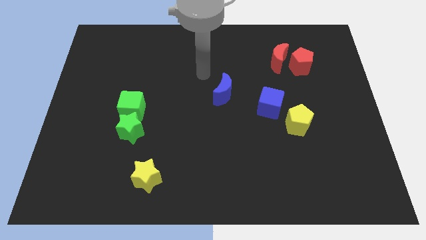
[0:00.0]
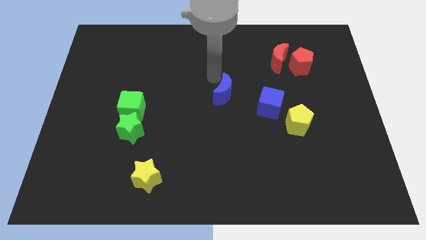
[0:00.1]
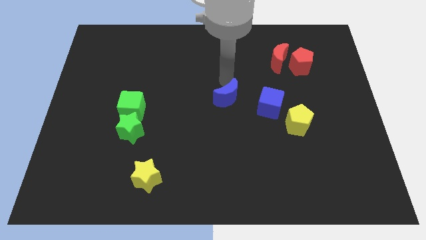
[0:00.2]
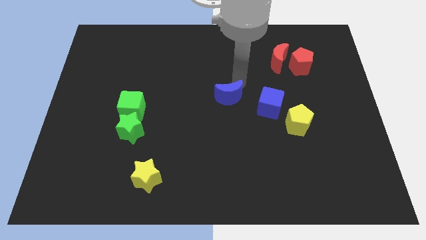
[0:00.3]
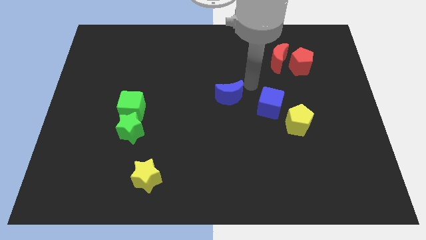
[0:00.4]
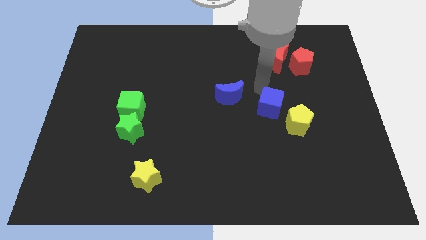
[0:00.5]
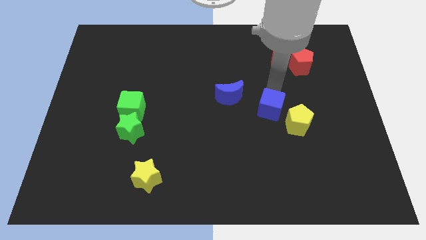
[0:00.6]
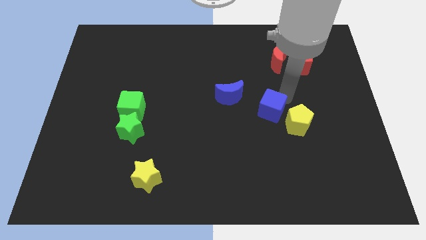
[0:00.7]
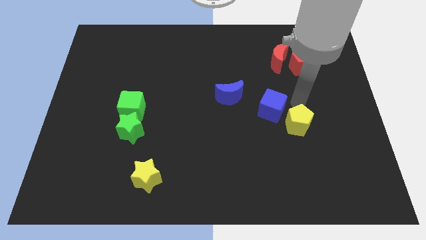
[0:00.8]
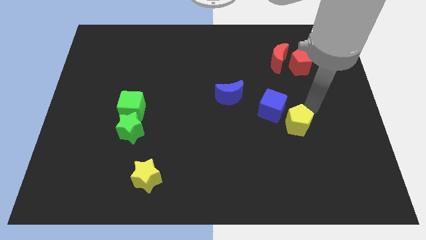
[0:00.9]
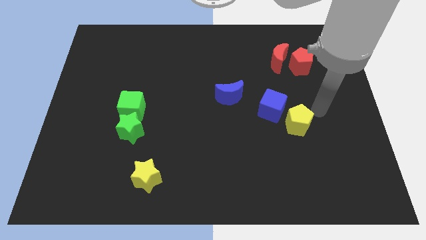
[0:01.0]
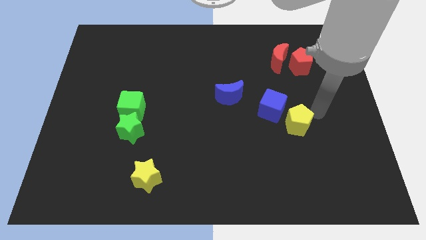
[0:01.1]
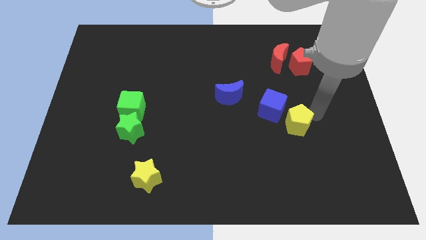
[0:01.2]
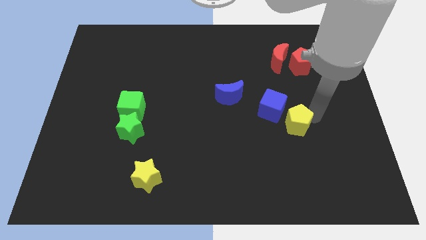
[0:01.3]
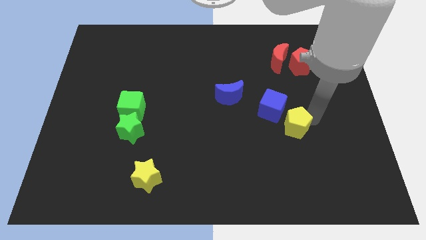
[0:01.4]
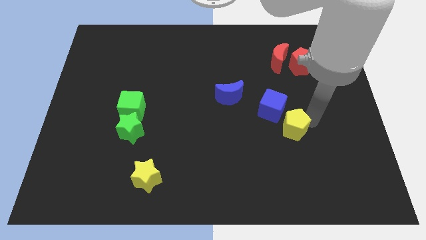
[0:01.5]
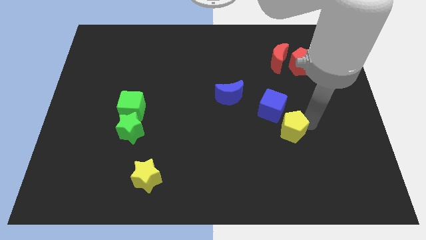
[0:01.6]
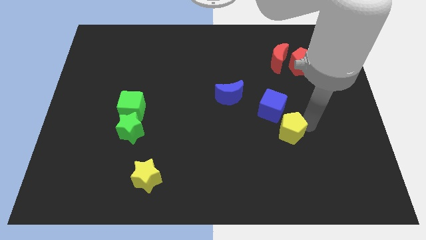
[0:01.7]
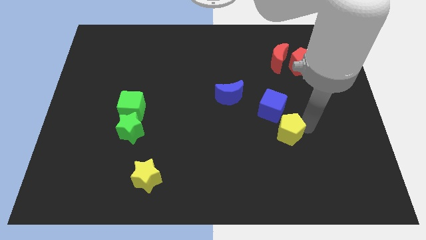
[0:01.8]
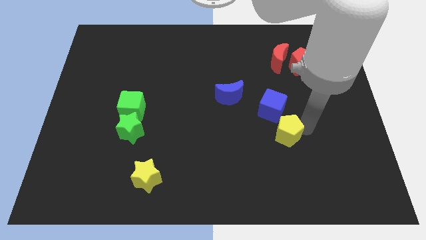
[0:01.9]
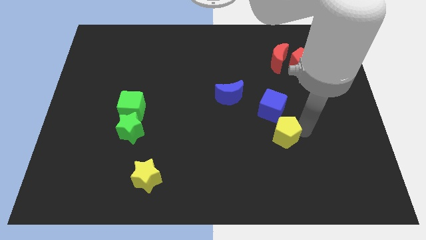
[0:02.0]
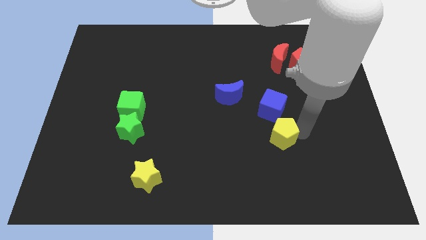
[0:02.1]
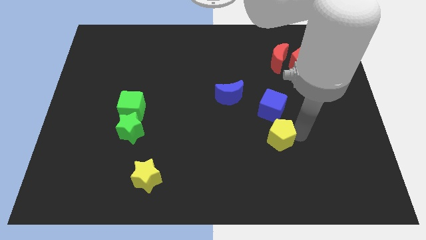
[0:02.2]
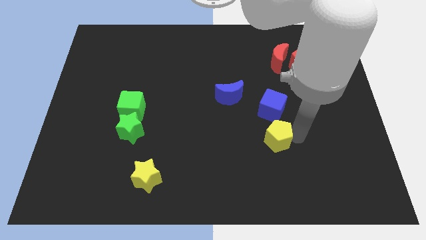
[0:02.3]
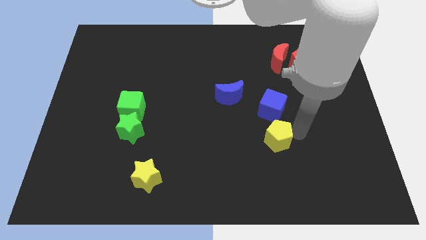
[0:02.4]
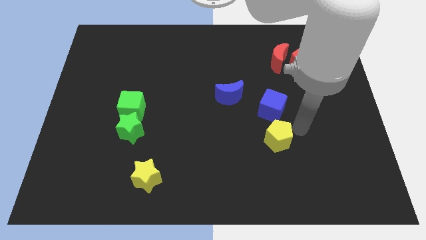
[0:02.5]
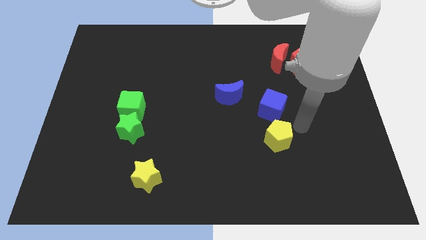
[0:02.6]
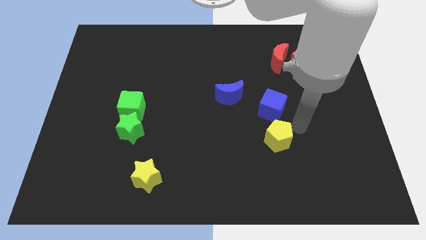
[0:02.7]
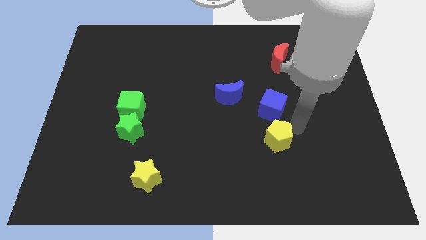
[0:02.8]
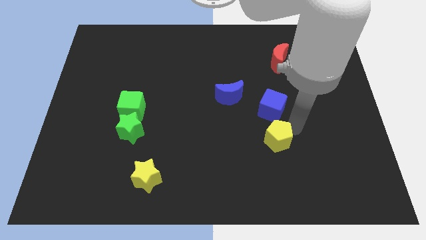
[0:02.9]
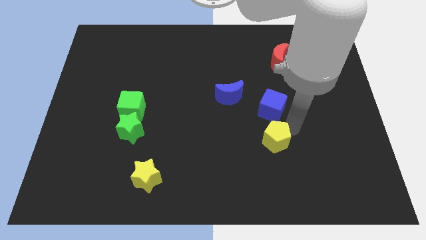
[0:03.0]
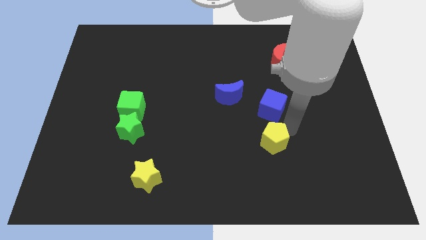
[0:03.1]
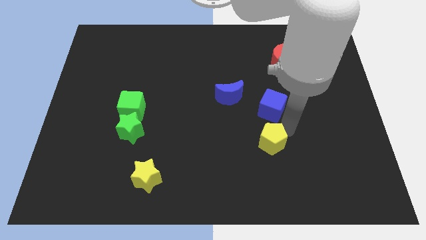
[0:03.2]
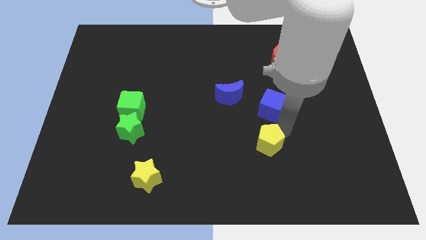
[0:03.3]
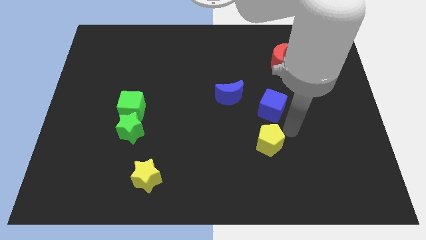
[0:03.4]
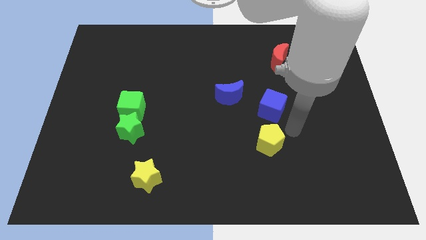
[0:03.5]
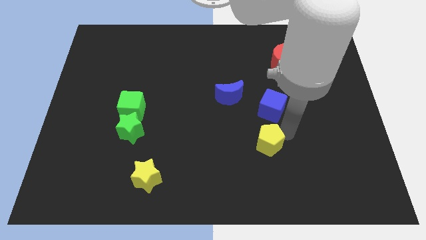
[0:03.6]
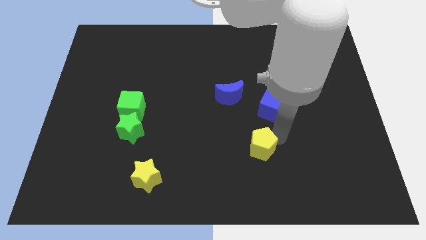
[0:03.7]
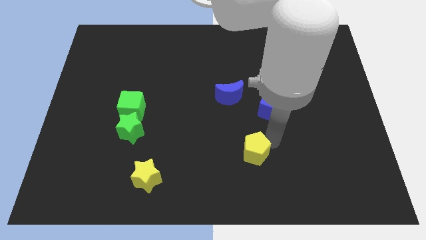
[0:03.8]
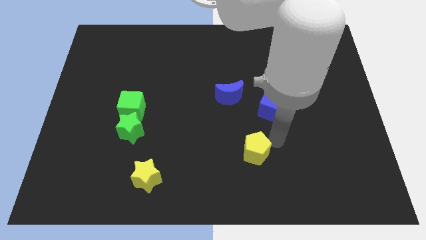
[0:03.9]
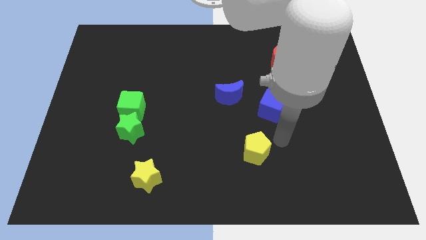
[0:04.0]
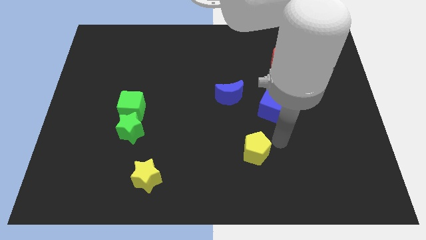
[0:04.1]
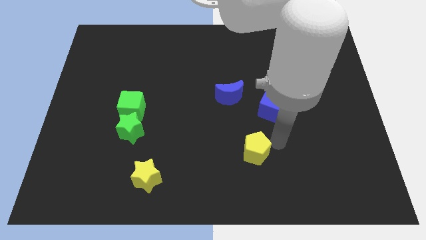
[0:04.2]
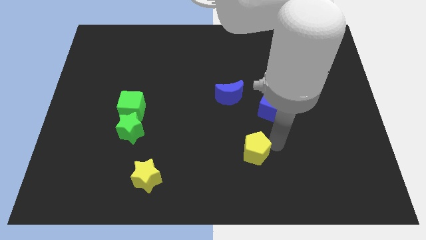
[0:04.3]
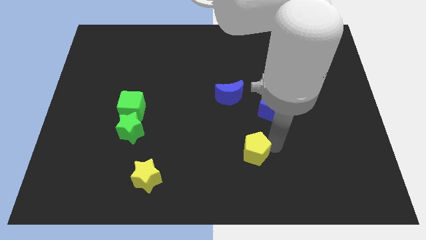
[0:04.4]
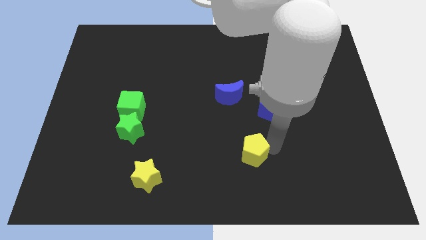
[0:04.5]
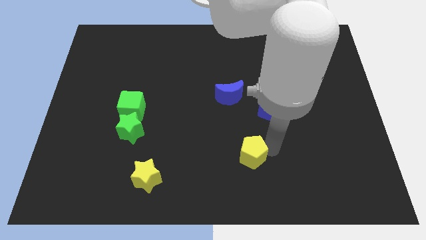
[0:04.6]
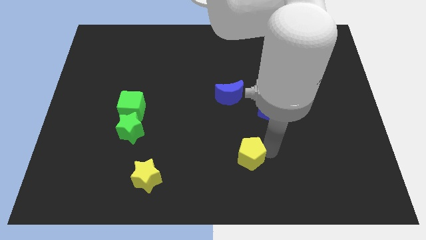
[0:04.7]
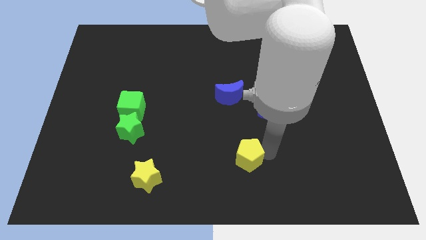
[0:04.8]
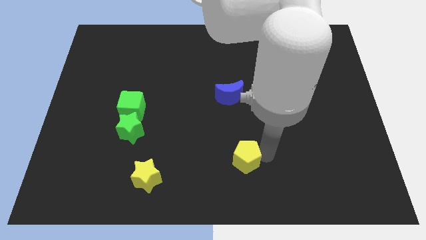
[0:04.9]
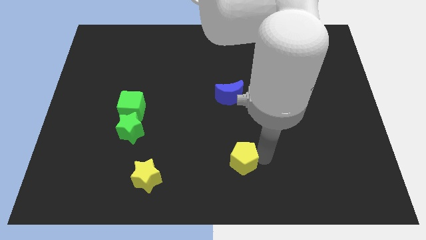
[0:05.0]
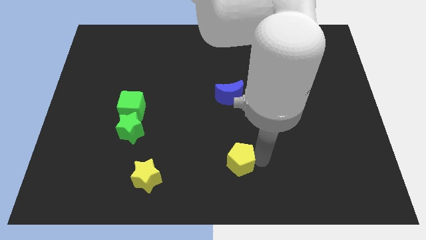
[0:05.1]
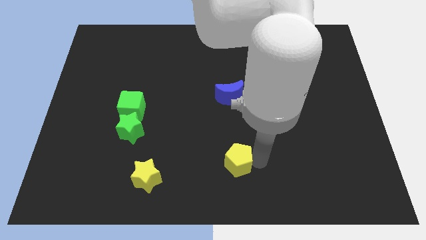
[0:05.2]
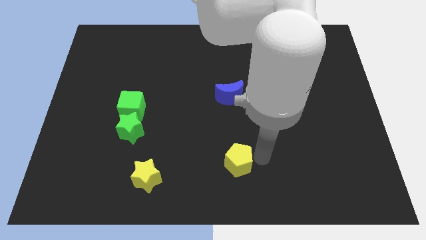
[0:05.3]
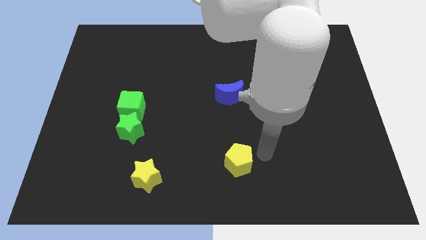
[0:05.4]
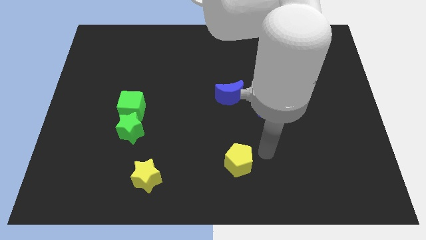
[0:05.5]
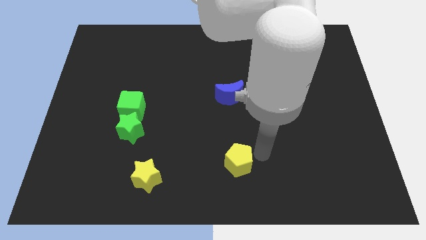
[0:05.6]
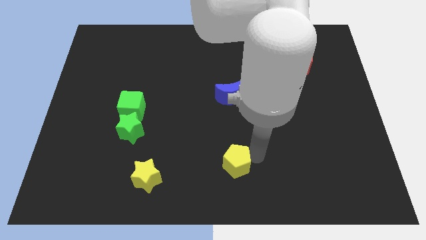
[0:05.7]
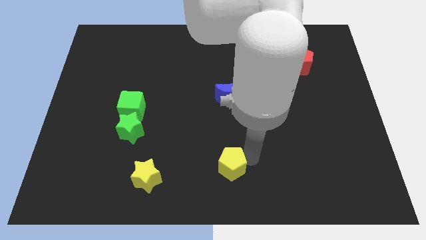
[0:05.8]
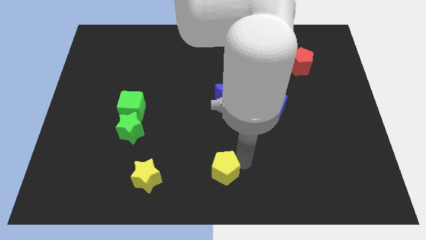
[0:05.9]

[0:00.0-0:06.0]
slide the yellow pentagon to the right side of the yellow star

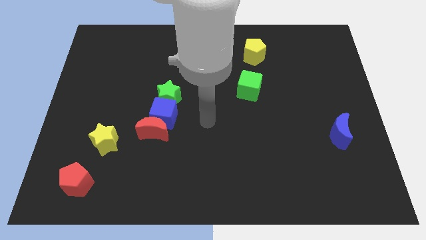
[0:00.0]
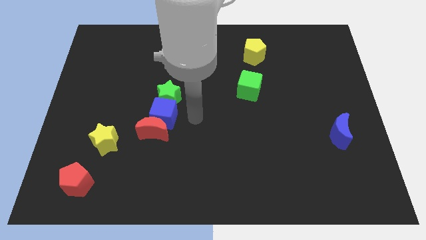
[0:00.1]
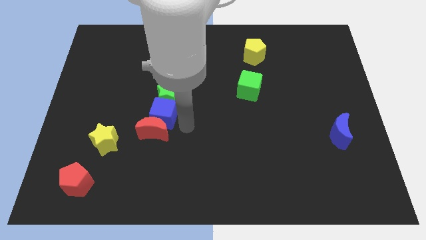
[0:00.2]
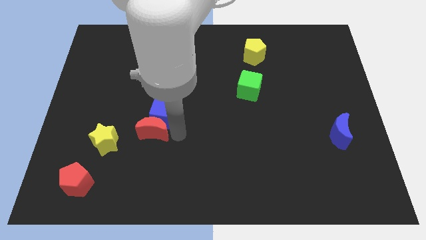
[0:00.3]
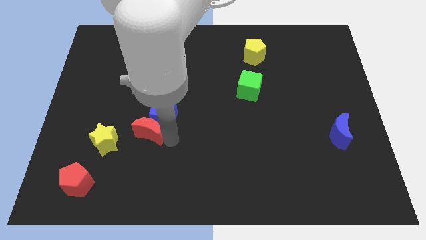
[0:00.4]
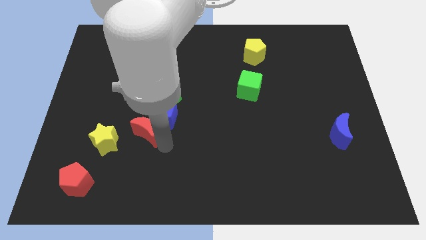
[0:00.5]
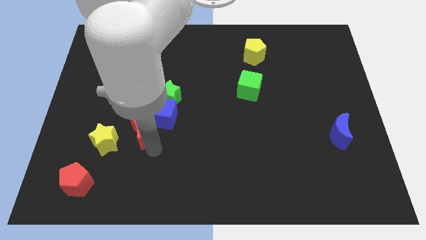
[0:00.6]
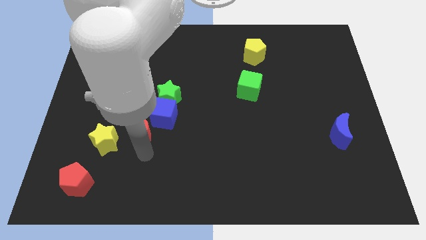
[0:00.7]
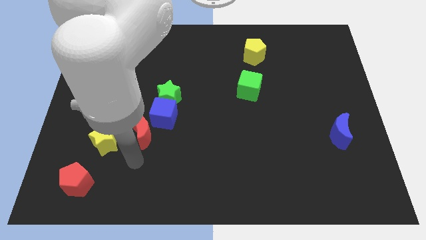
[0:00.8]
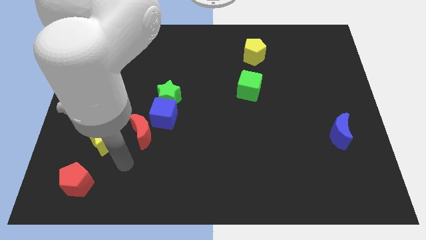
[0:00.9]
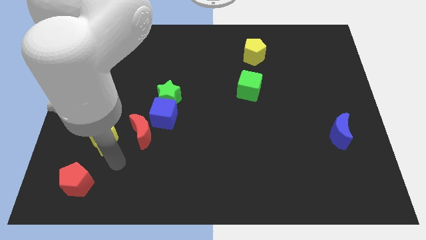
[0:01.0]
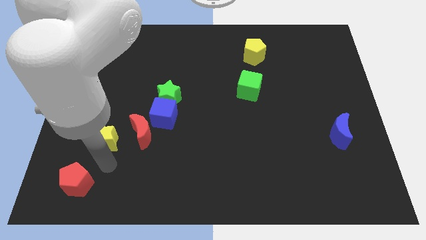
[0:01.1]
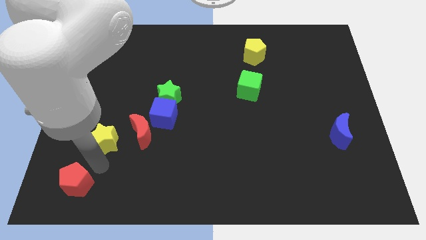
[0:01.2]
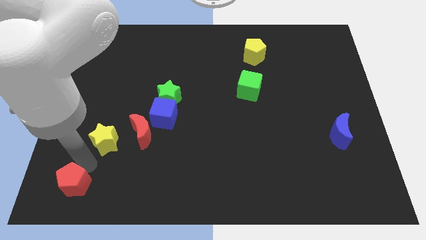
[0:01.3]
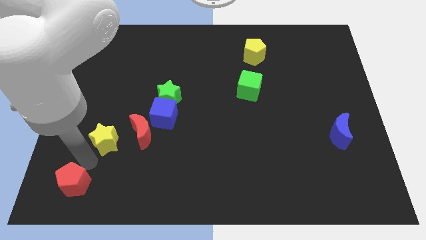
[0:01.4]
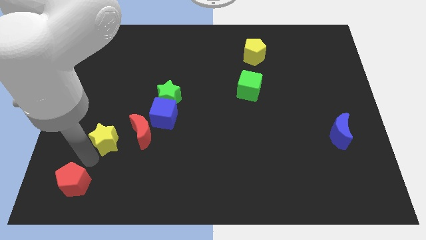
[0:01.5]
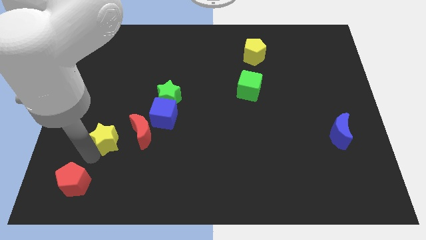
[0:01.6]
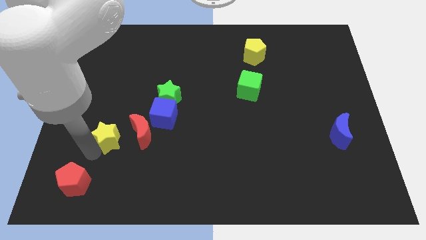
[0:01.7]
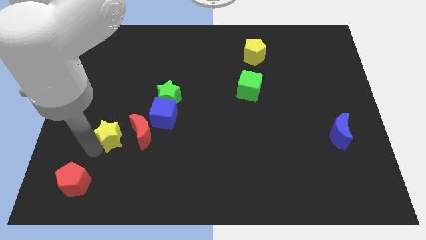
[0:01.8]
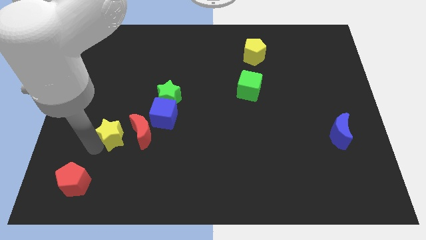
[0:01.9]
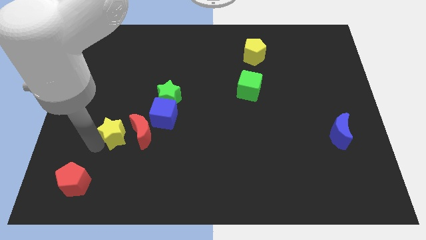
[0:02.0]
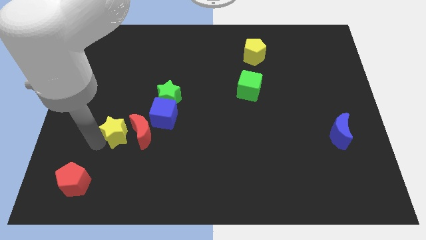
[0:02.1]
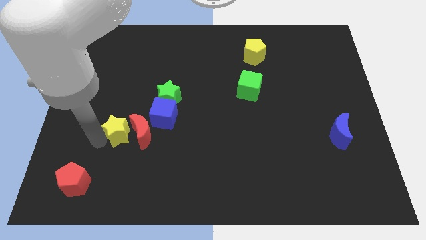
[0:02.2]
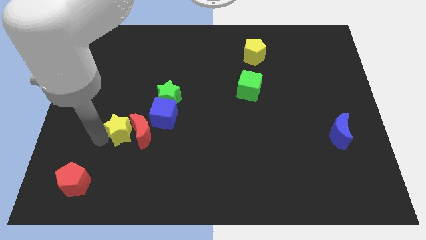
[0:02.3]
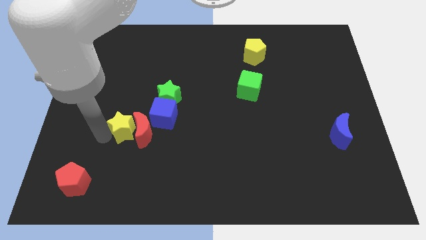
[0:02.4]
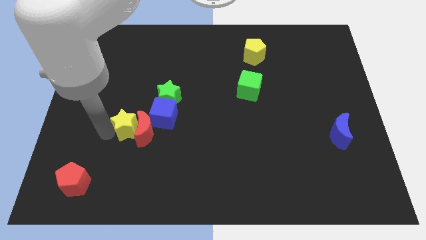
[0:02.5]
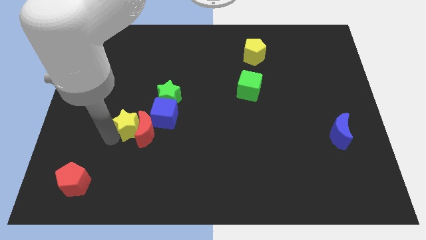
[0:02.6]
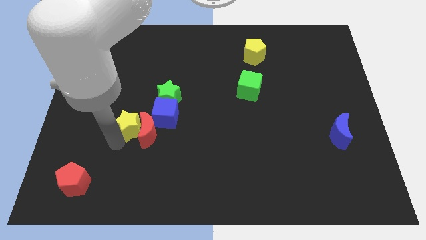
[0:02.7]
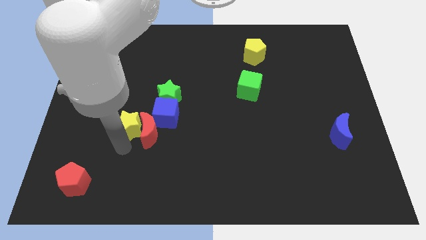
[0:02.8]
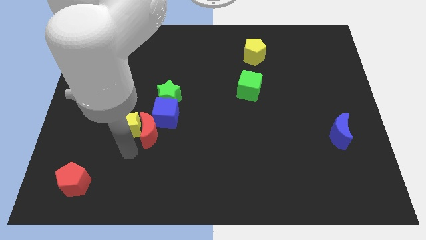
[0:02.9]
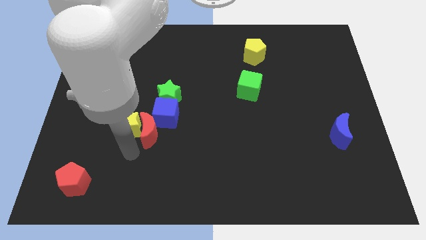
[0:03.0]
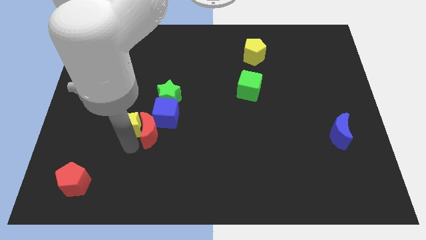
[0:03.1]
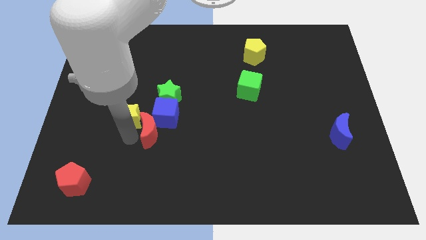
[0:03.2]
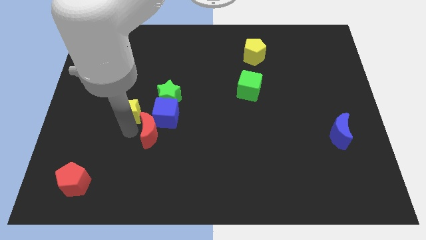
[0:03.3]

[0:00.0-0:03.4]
push the yellow star left of the green star
